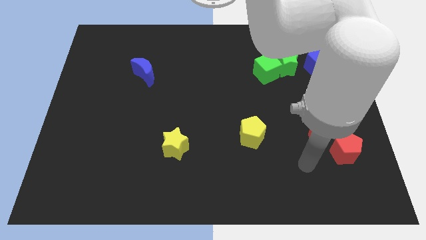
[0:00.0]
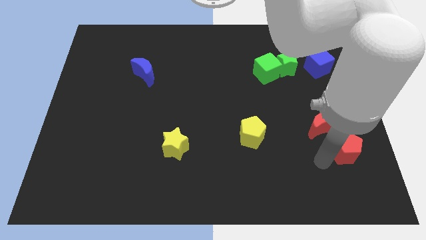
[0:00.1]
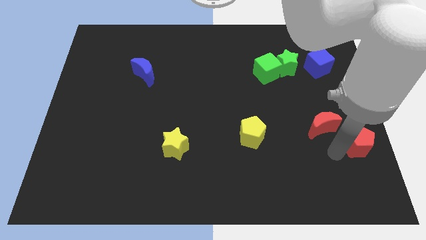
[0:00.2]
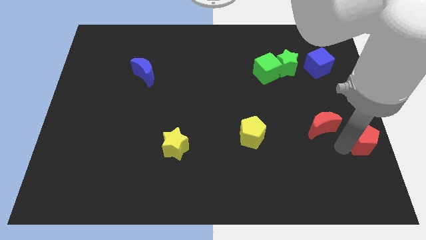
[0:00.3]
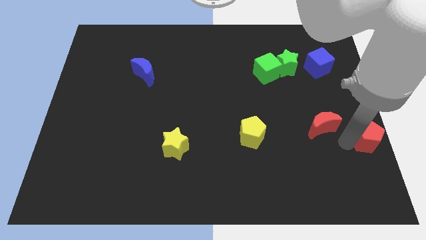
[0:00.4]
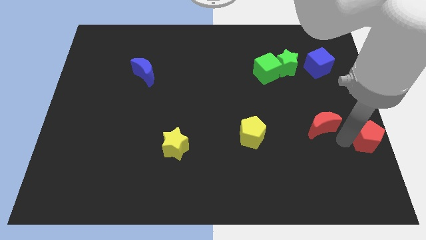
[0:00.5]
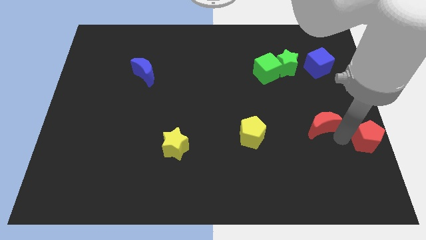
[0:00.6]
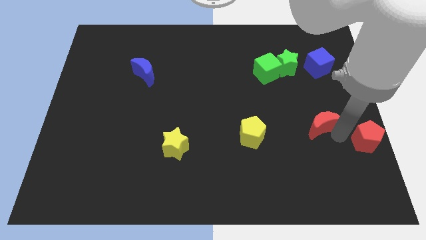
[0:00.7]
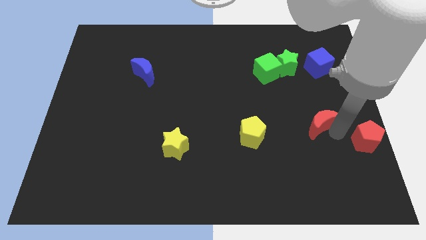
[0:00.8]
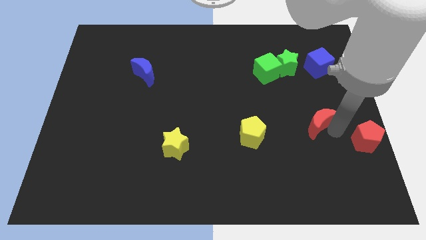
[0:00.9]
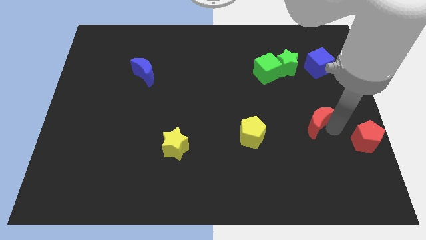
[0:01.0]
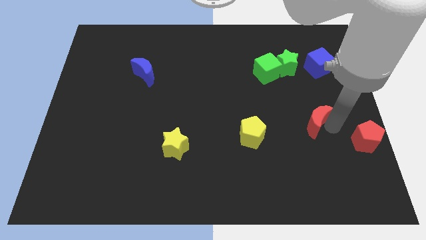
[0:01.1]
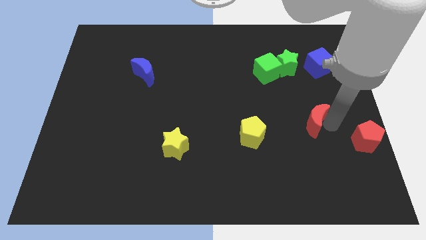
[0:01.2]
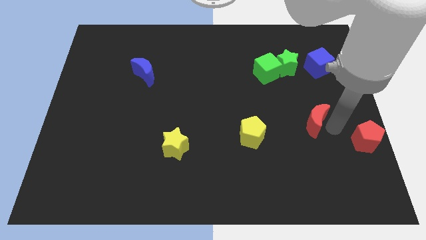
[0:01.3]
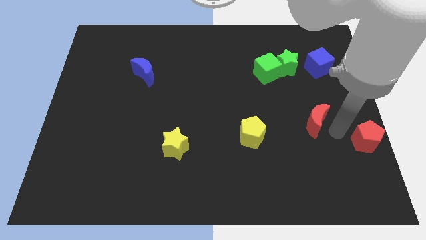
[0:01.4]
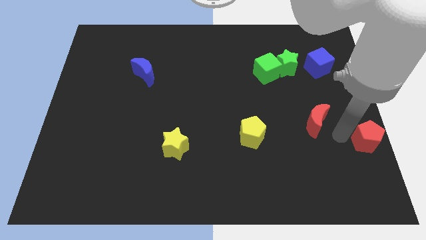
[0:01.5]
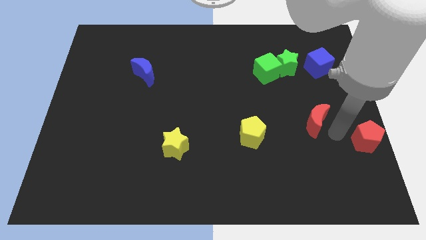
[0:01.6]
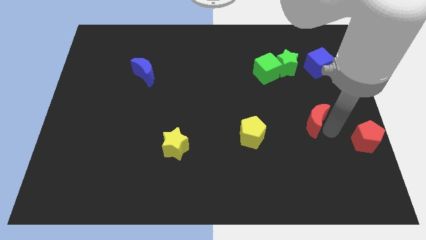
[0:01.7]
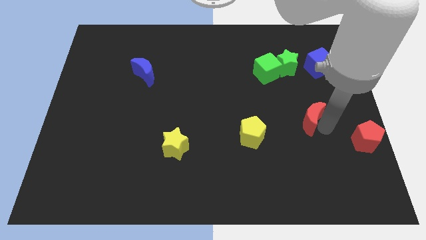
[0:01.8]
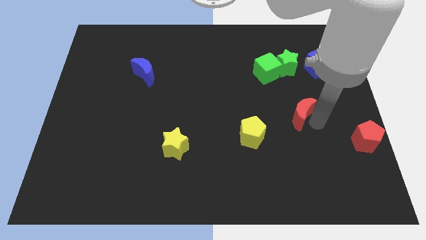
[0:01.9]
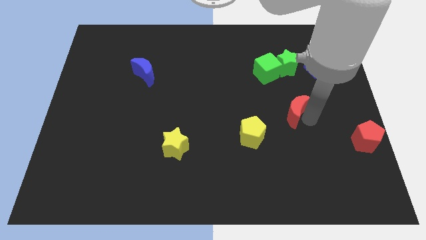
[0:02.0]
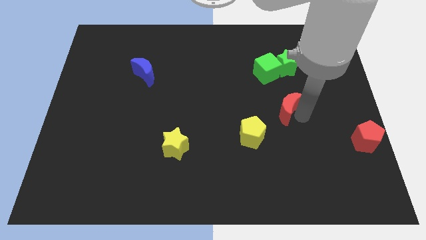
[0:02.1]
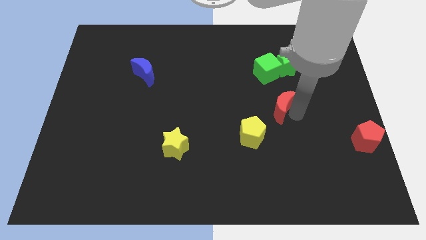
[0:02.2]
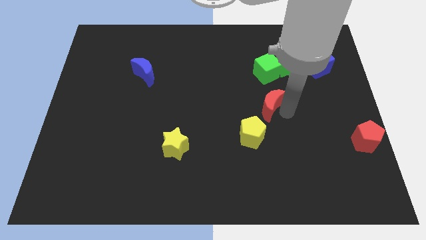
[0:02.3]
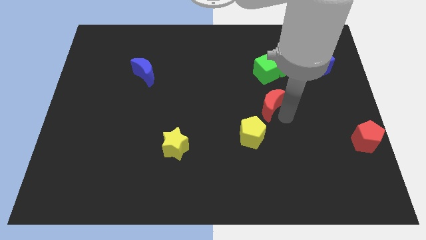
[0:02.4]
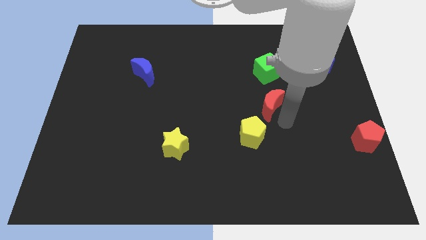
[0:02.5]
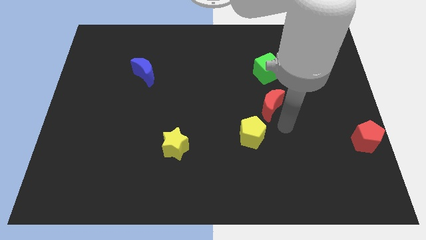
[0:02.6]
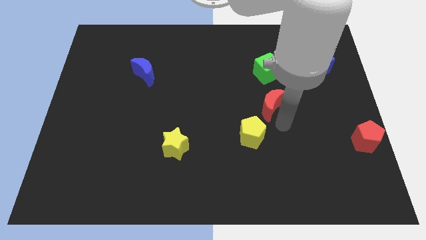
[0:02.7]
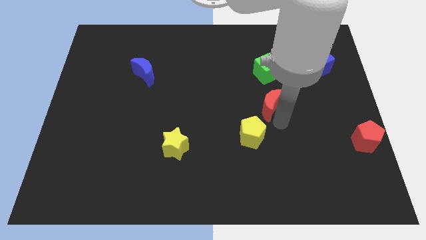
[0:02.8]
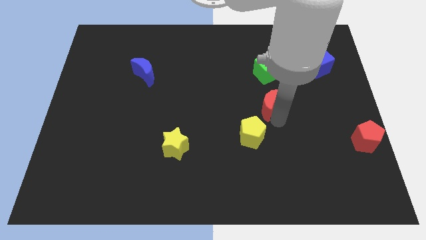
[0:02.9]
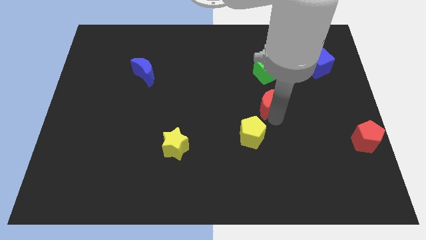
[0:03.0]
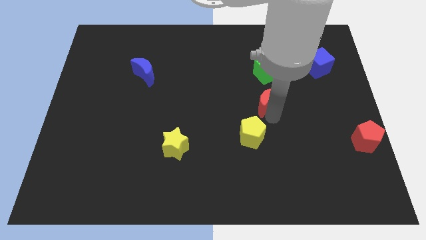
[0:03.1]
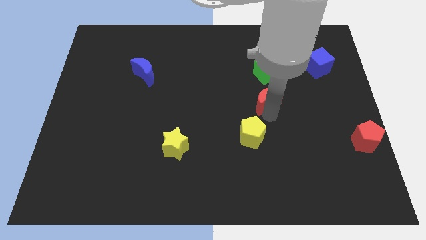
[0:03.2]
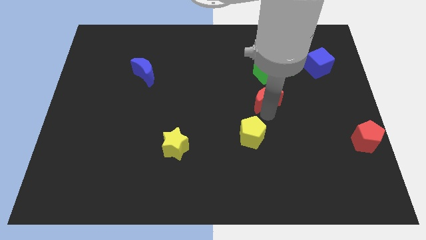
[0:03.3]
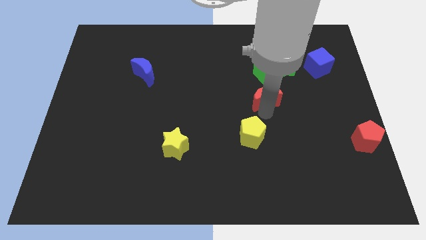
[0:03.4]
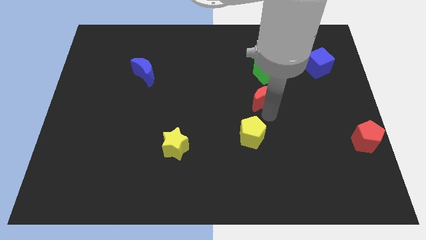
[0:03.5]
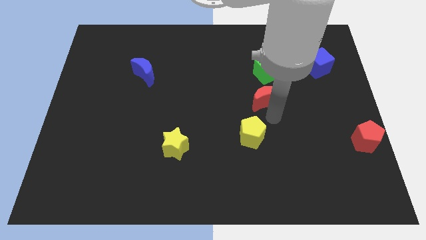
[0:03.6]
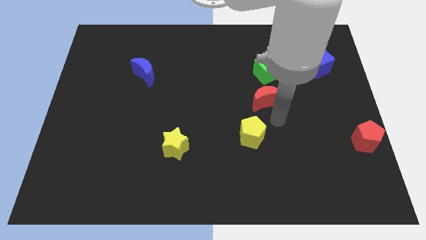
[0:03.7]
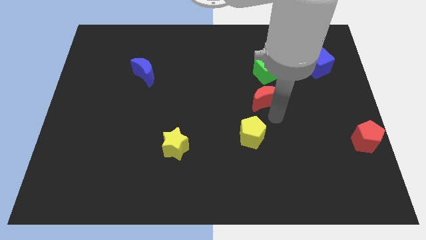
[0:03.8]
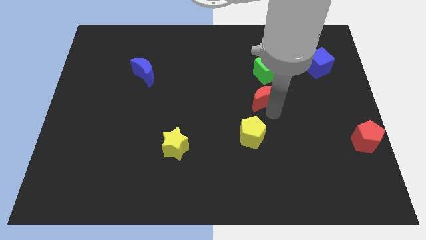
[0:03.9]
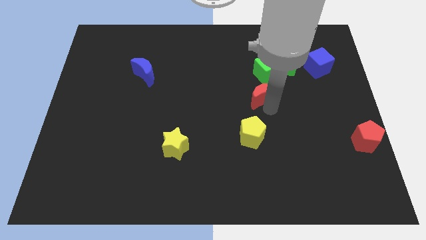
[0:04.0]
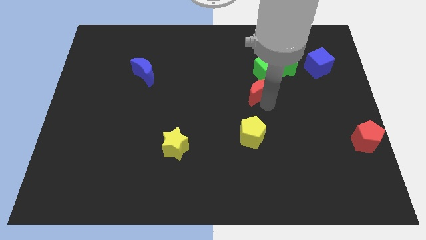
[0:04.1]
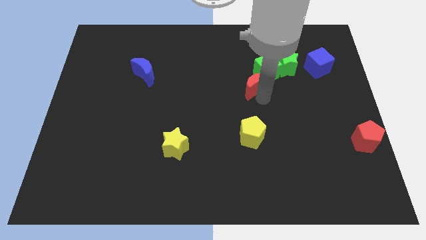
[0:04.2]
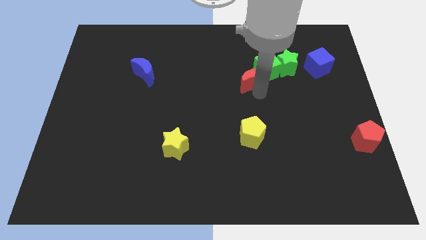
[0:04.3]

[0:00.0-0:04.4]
slide the red moon upwards and to the left diagonally

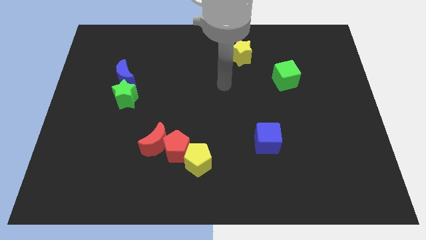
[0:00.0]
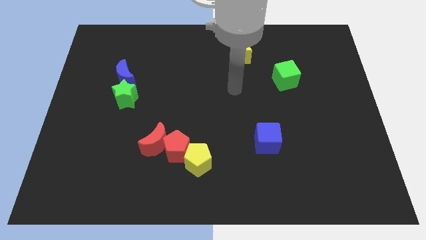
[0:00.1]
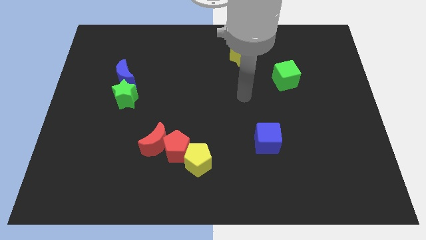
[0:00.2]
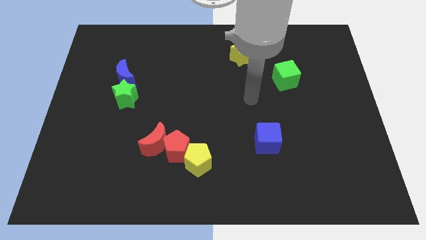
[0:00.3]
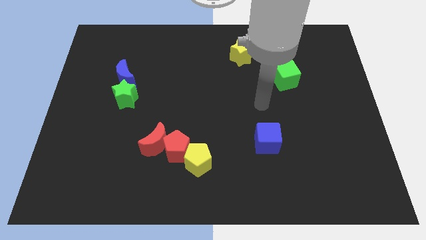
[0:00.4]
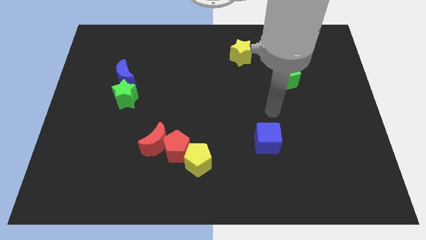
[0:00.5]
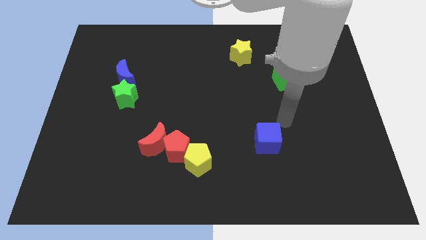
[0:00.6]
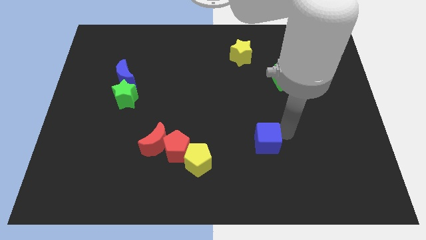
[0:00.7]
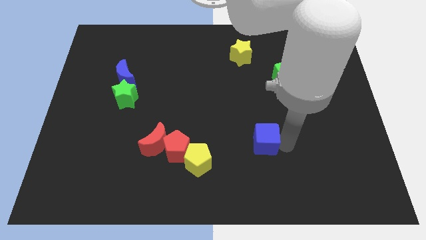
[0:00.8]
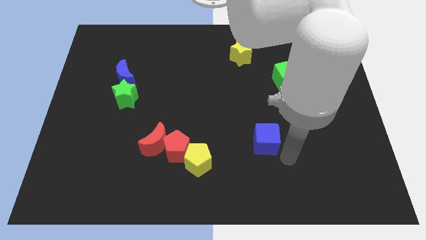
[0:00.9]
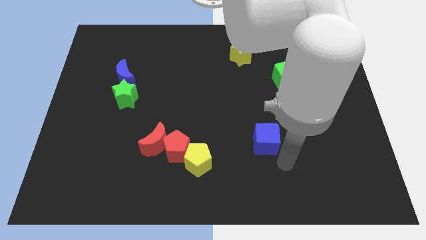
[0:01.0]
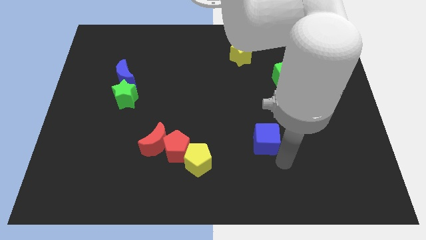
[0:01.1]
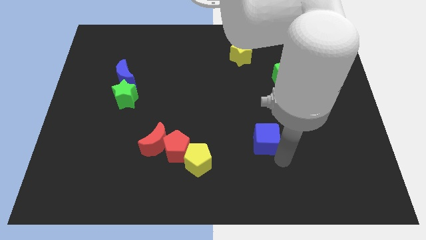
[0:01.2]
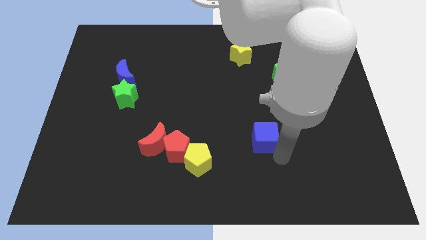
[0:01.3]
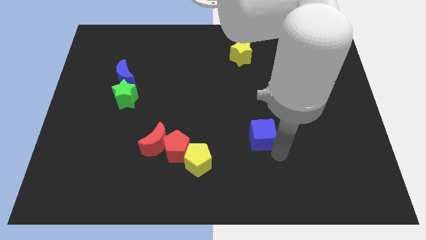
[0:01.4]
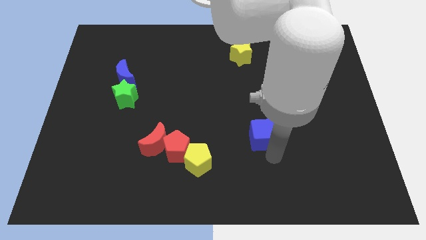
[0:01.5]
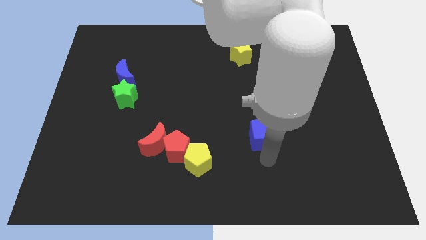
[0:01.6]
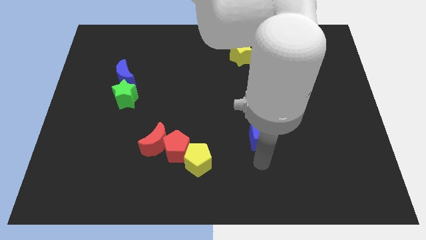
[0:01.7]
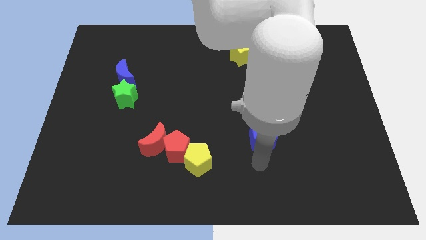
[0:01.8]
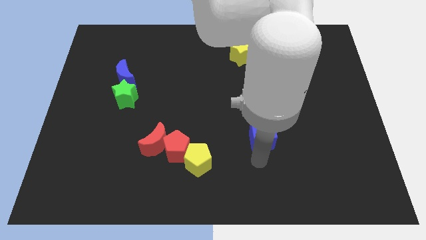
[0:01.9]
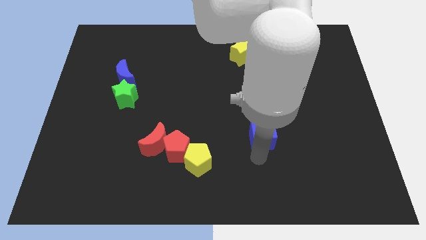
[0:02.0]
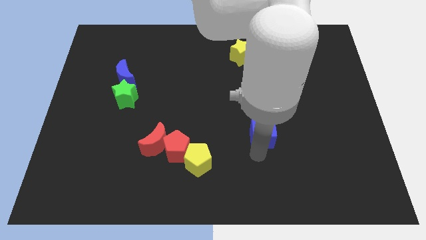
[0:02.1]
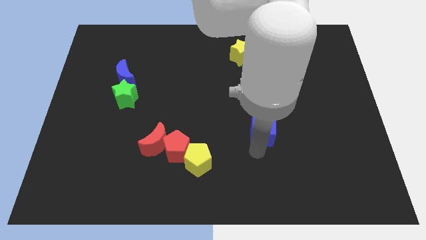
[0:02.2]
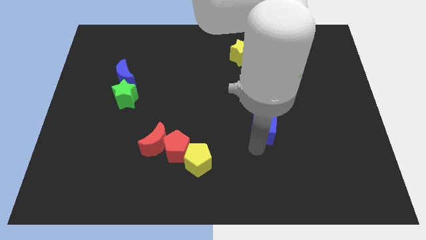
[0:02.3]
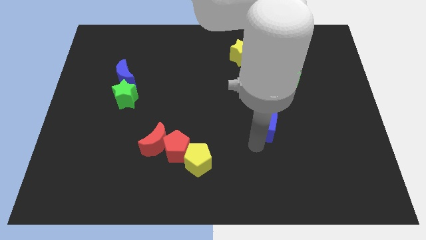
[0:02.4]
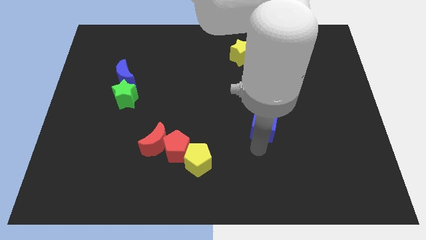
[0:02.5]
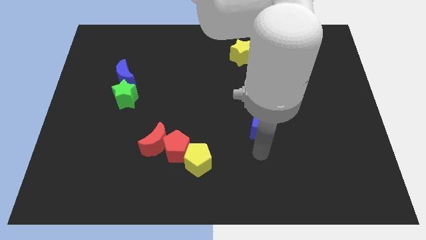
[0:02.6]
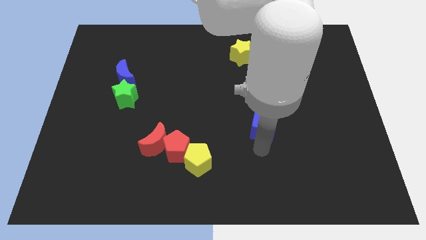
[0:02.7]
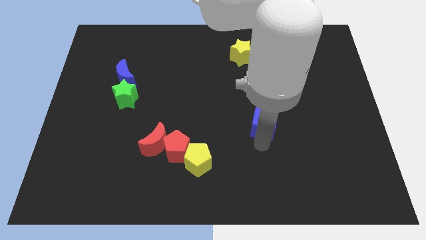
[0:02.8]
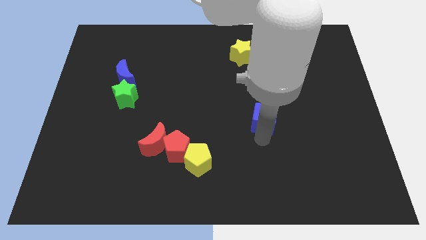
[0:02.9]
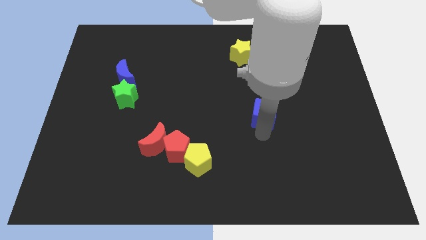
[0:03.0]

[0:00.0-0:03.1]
move the blue cube slightly upwards

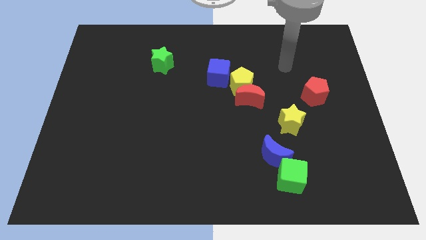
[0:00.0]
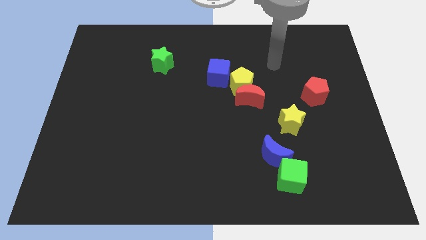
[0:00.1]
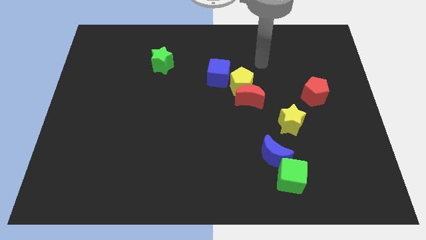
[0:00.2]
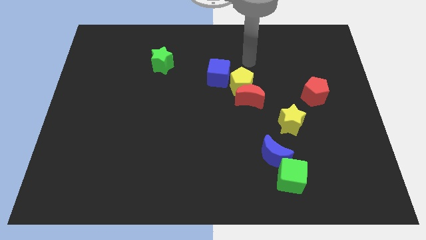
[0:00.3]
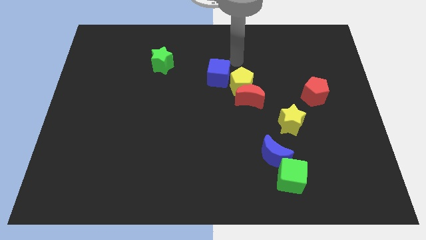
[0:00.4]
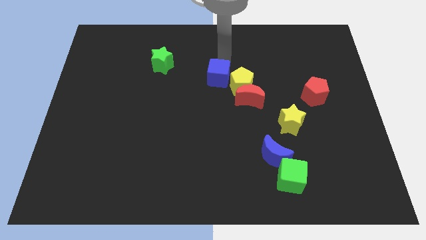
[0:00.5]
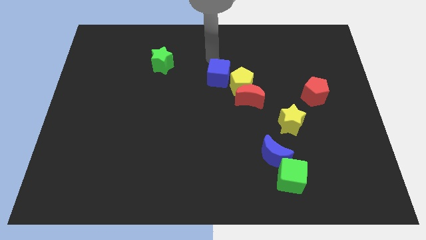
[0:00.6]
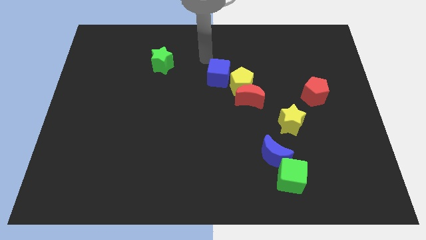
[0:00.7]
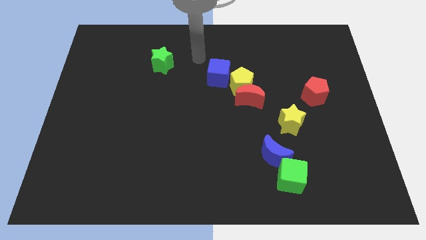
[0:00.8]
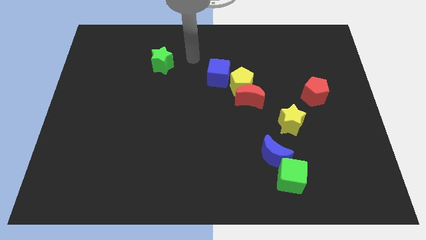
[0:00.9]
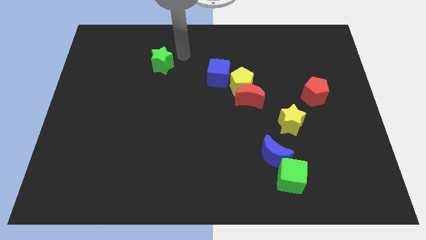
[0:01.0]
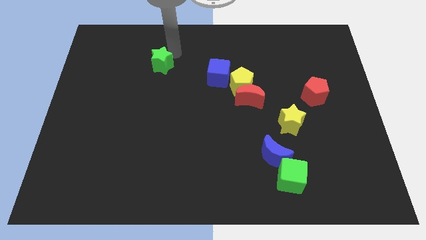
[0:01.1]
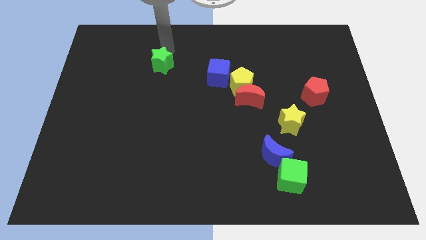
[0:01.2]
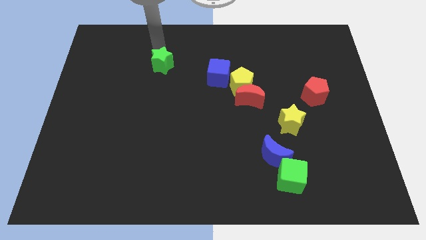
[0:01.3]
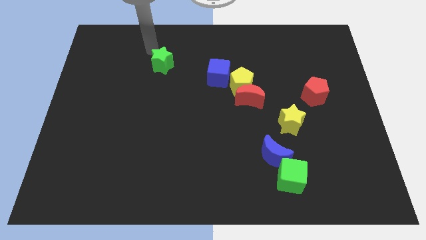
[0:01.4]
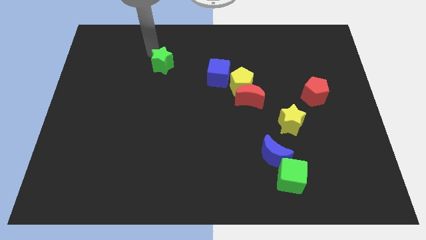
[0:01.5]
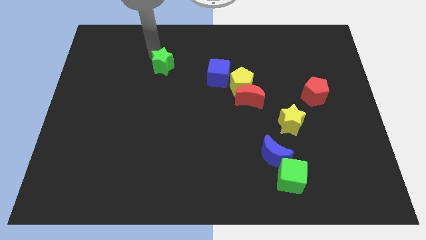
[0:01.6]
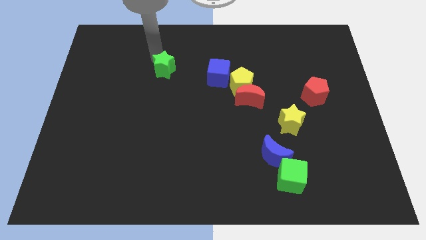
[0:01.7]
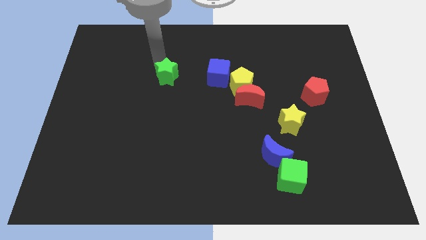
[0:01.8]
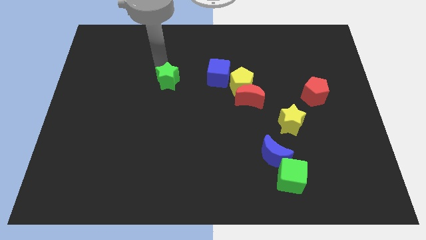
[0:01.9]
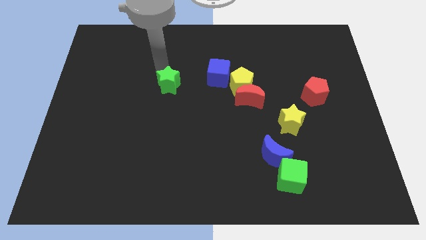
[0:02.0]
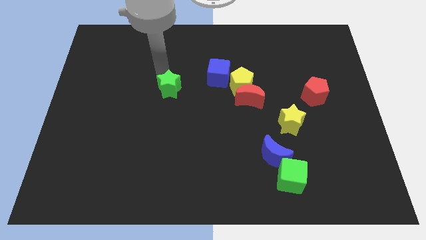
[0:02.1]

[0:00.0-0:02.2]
push the green star a bit down and right
